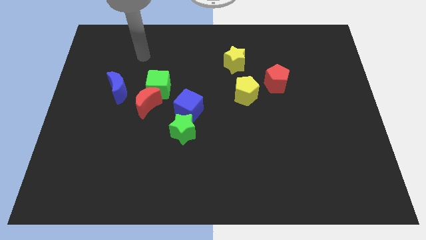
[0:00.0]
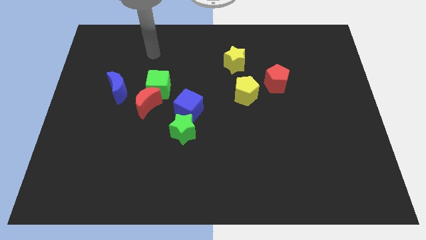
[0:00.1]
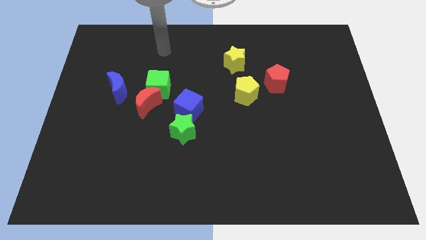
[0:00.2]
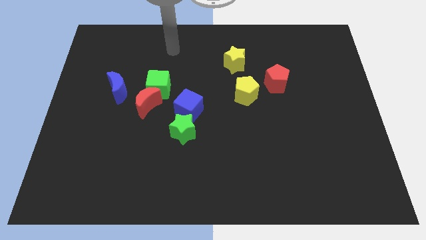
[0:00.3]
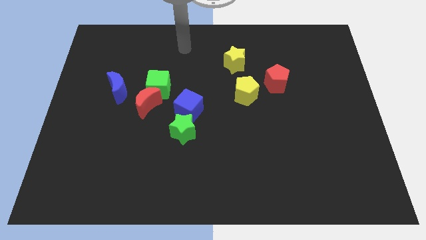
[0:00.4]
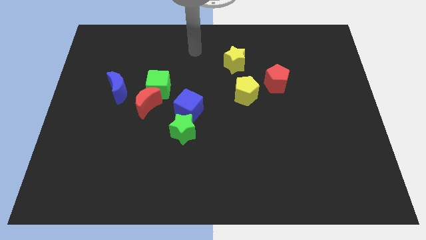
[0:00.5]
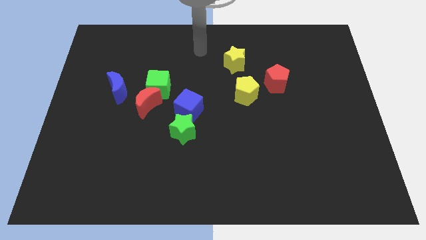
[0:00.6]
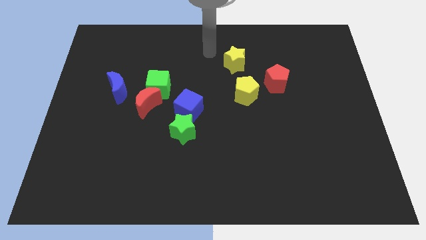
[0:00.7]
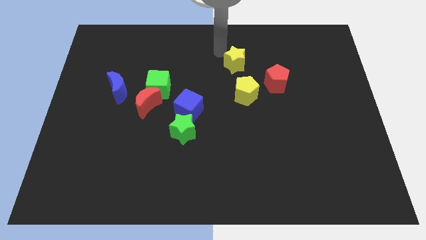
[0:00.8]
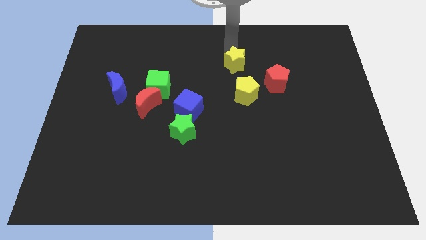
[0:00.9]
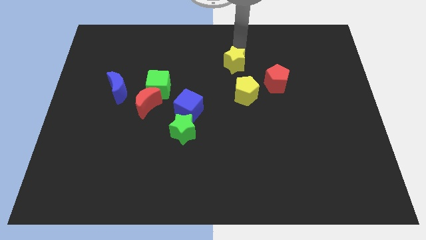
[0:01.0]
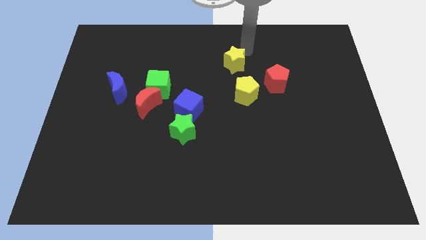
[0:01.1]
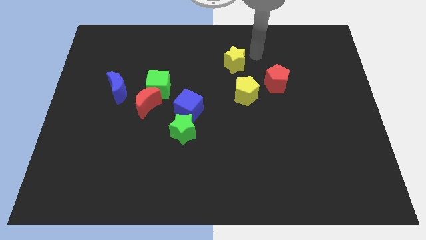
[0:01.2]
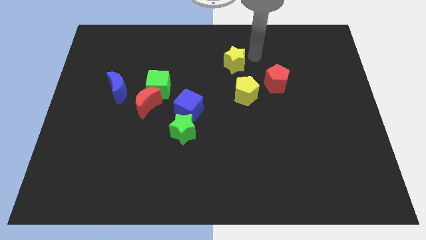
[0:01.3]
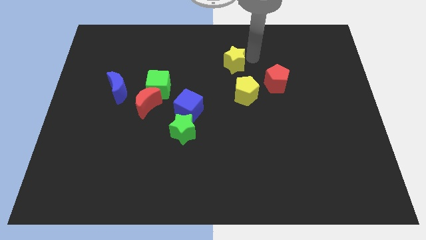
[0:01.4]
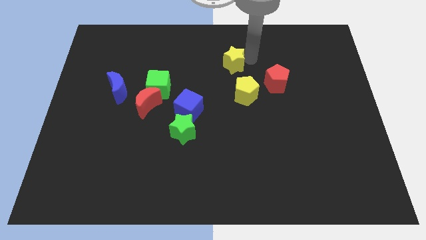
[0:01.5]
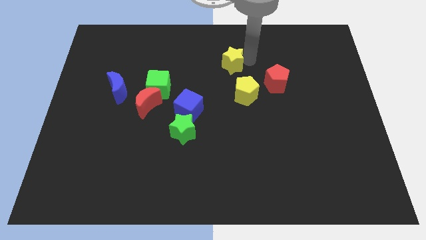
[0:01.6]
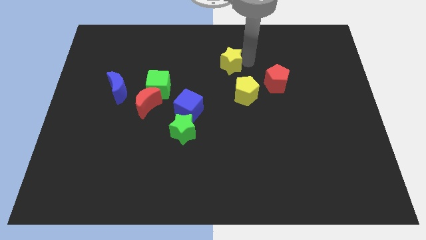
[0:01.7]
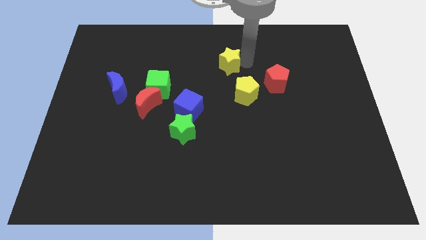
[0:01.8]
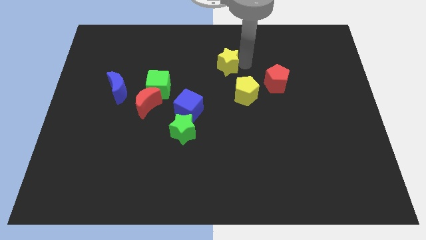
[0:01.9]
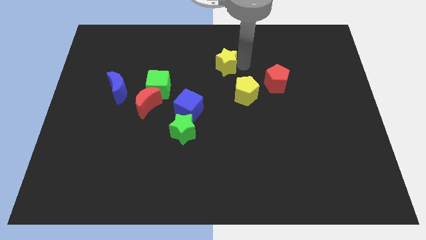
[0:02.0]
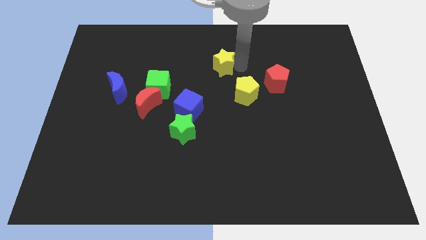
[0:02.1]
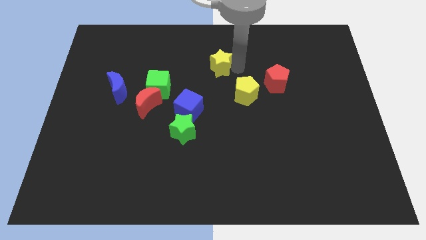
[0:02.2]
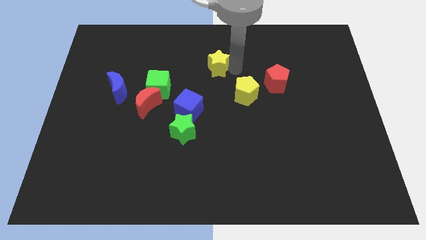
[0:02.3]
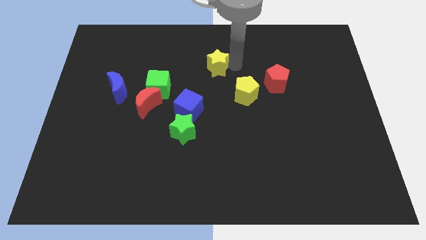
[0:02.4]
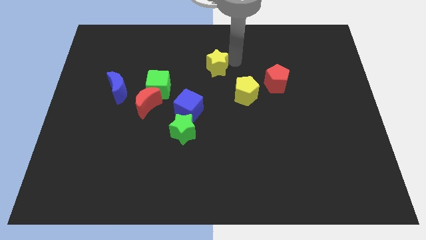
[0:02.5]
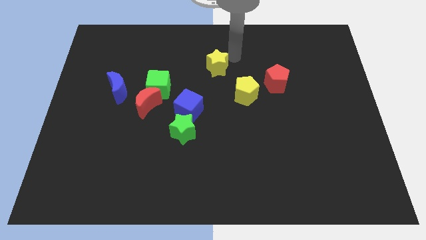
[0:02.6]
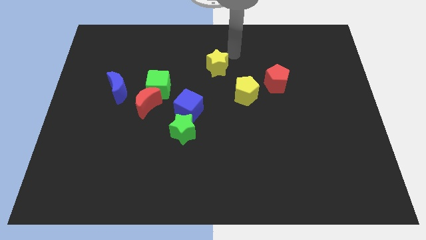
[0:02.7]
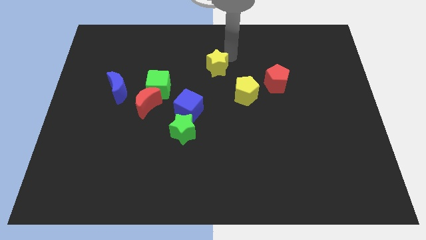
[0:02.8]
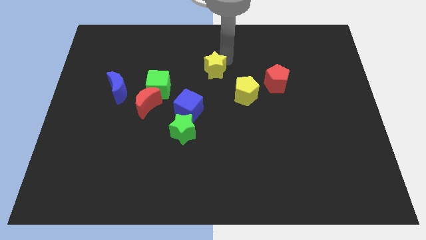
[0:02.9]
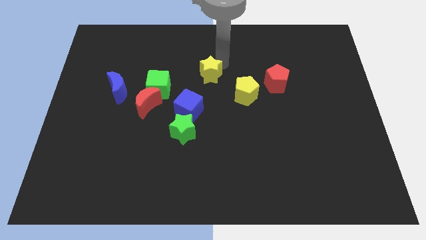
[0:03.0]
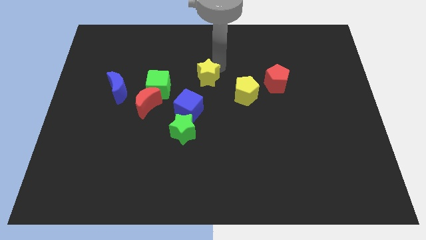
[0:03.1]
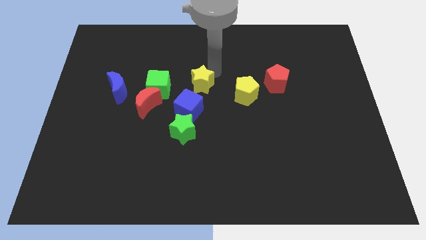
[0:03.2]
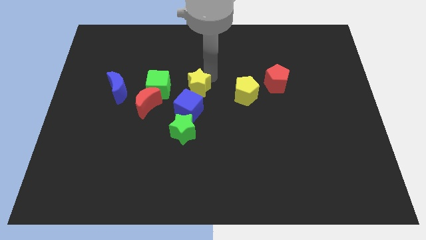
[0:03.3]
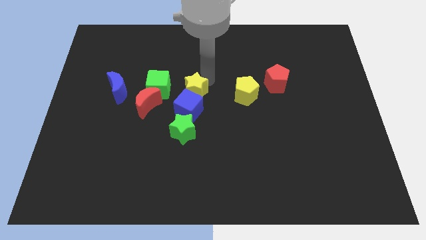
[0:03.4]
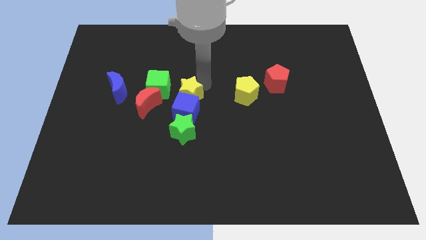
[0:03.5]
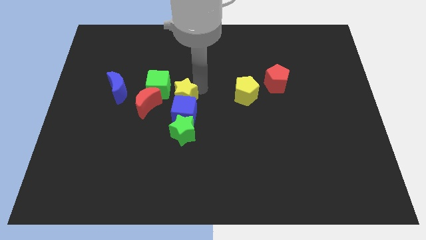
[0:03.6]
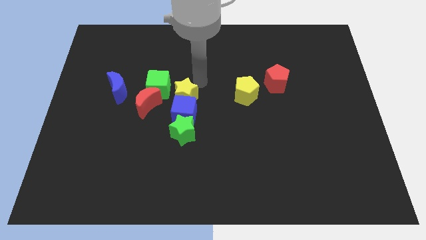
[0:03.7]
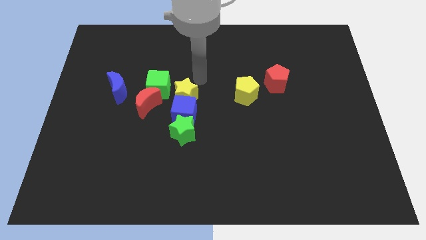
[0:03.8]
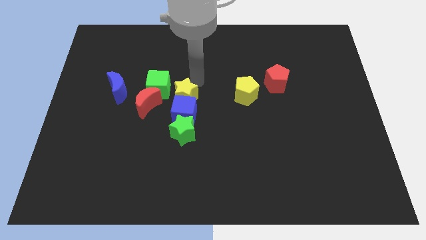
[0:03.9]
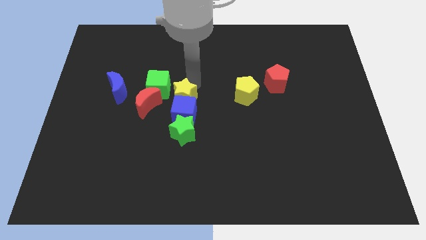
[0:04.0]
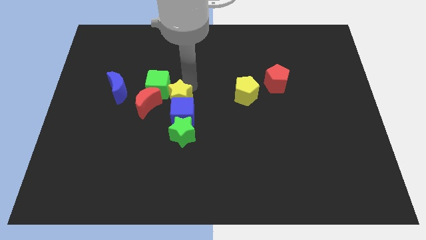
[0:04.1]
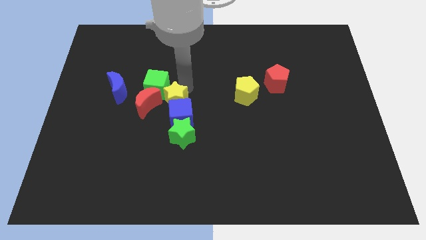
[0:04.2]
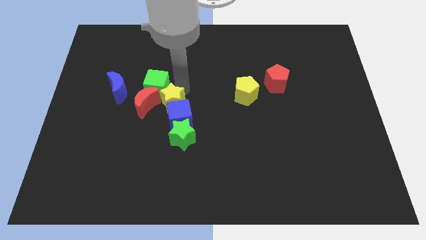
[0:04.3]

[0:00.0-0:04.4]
slide the yellow star downwards and left

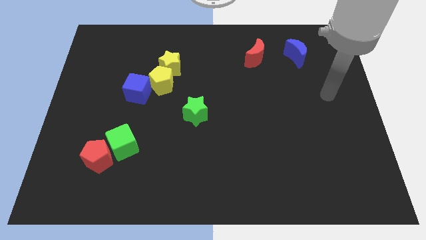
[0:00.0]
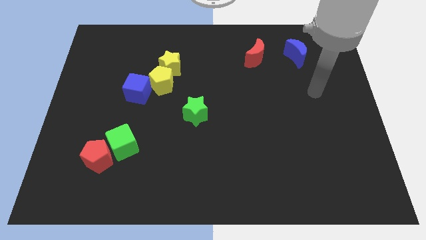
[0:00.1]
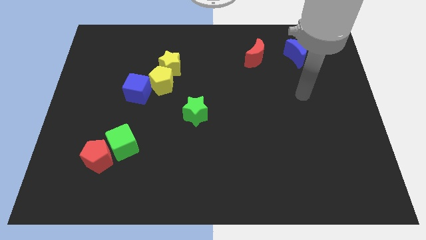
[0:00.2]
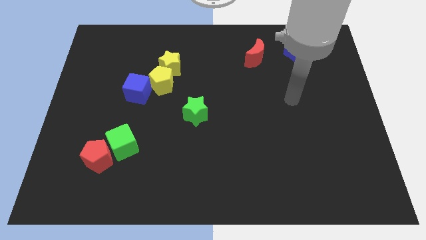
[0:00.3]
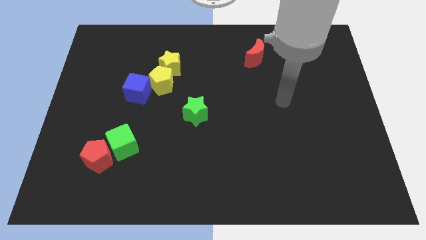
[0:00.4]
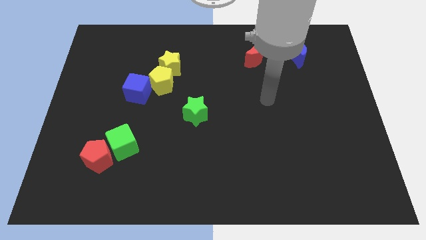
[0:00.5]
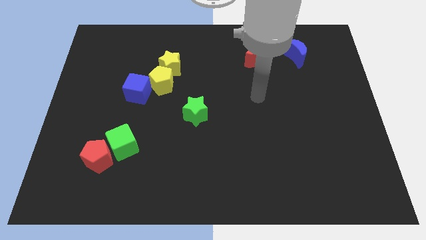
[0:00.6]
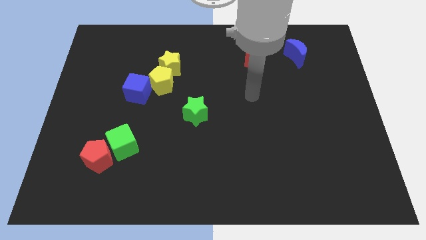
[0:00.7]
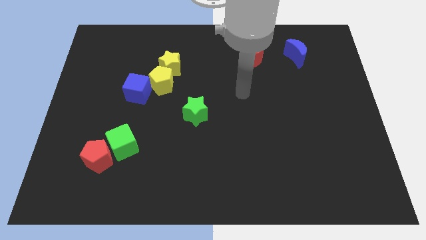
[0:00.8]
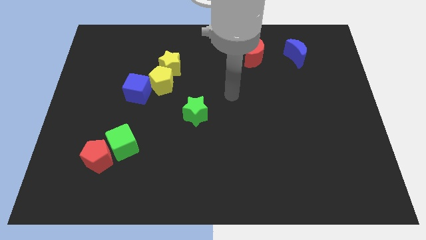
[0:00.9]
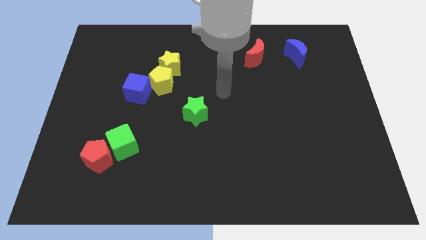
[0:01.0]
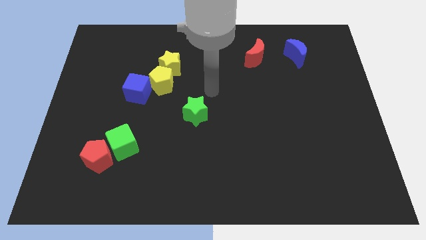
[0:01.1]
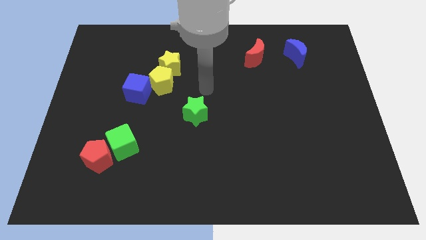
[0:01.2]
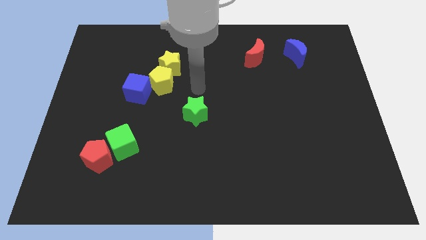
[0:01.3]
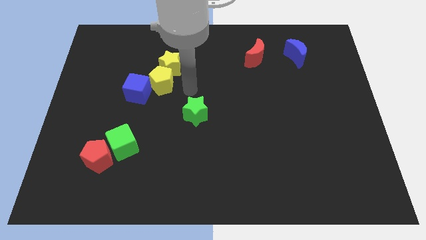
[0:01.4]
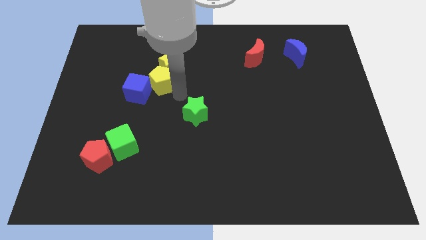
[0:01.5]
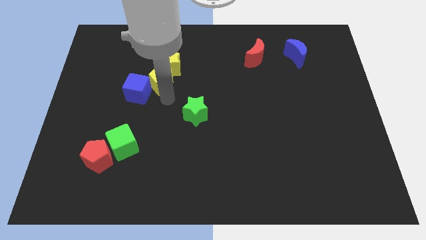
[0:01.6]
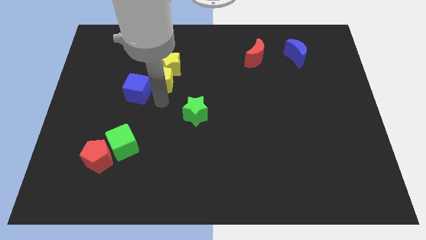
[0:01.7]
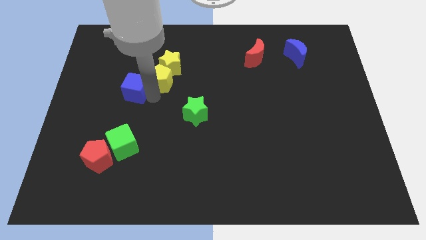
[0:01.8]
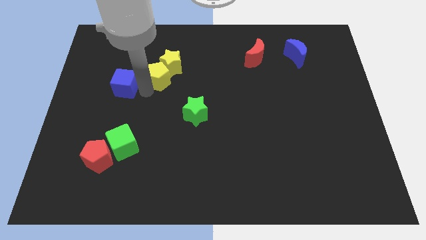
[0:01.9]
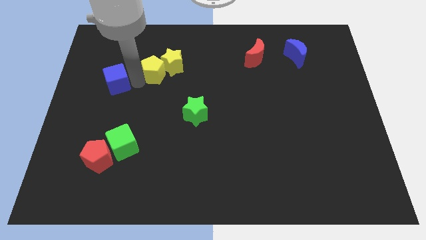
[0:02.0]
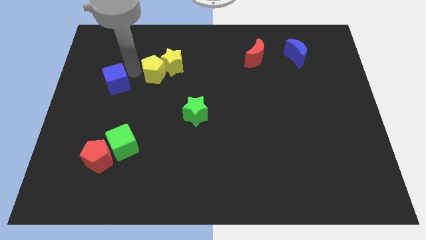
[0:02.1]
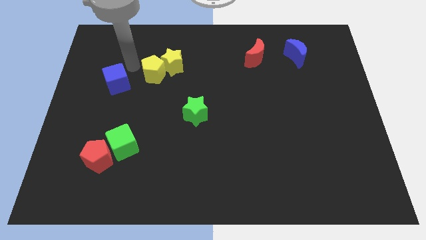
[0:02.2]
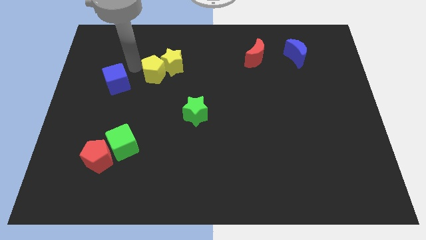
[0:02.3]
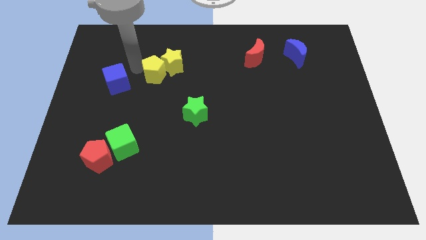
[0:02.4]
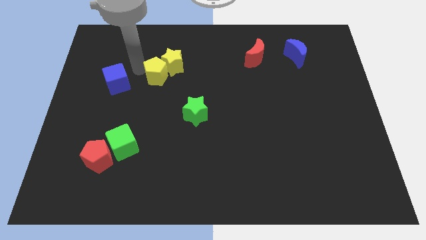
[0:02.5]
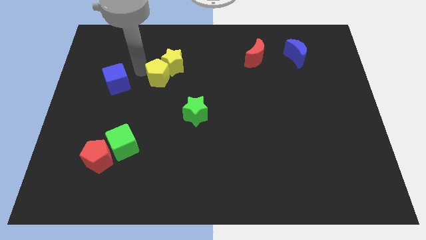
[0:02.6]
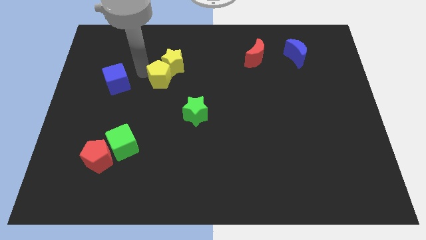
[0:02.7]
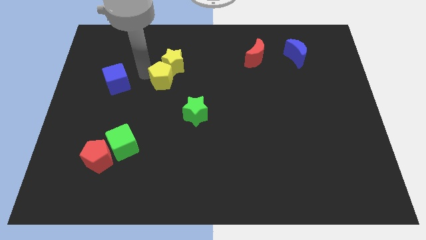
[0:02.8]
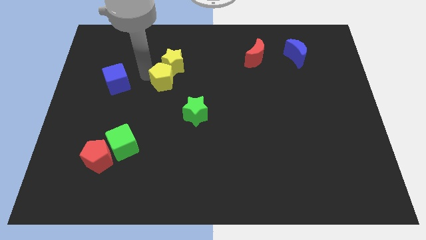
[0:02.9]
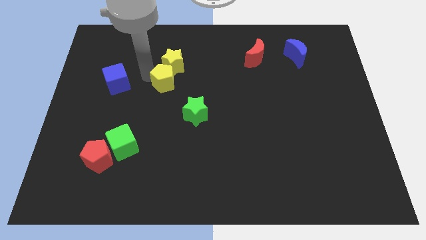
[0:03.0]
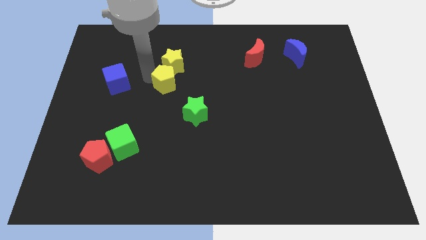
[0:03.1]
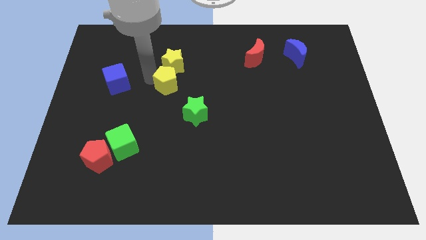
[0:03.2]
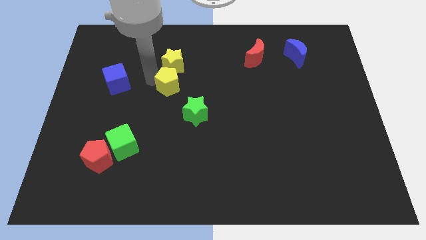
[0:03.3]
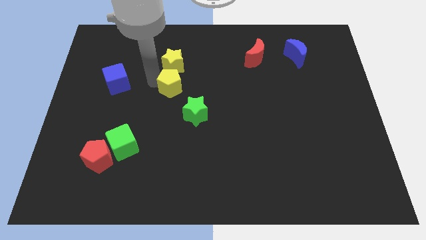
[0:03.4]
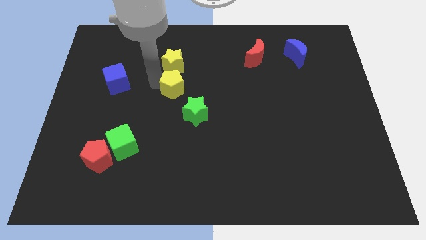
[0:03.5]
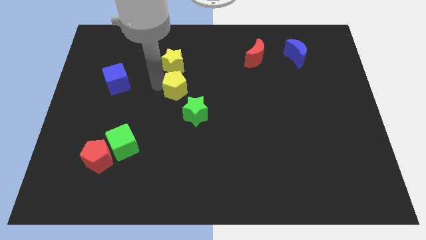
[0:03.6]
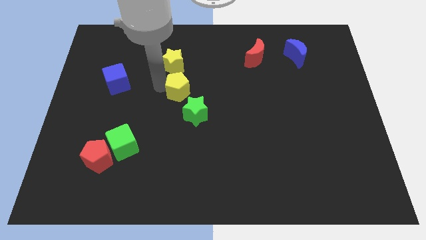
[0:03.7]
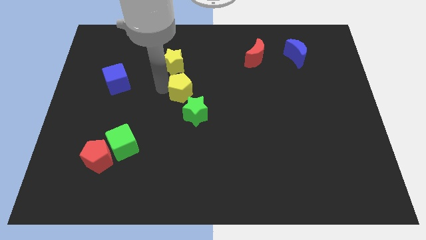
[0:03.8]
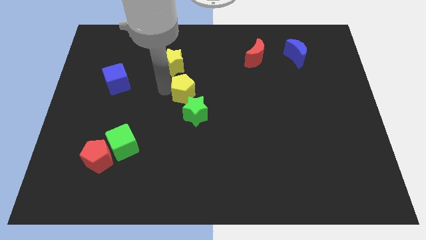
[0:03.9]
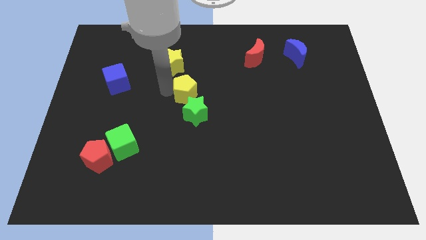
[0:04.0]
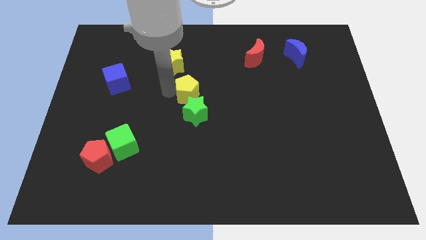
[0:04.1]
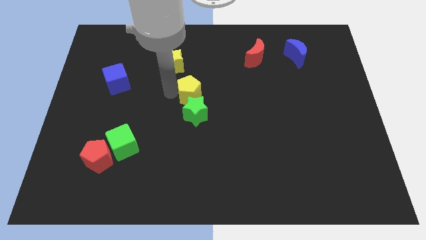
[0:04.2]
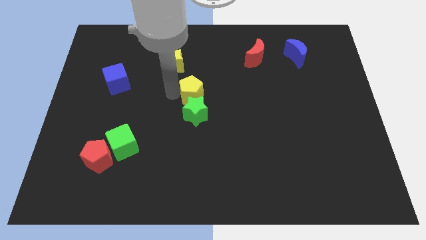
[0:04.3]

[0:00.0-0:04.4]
slightly move the yellow pentagon right
